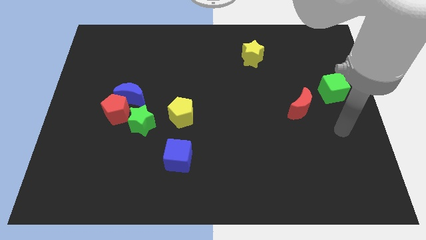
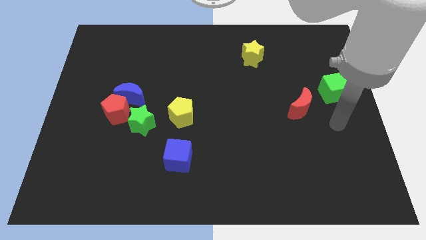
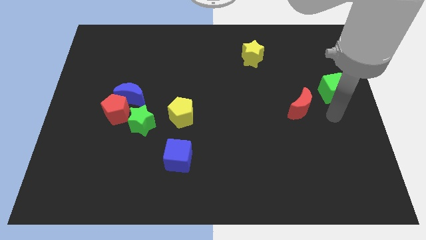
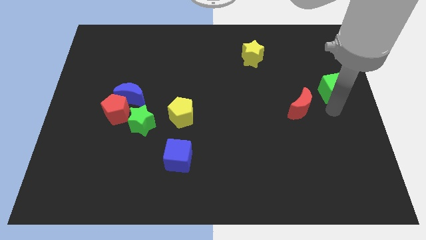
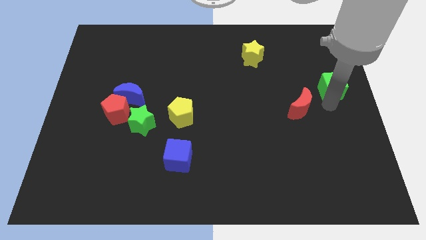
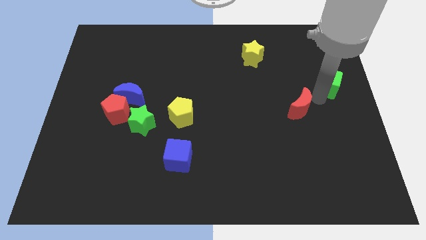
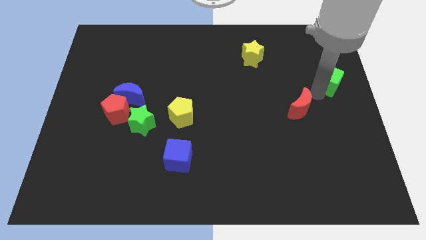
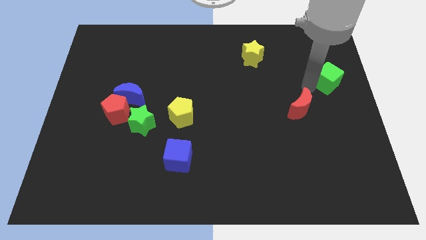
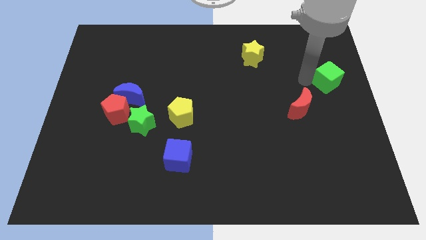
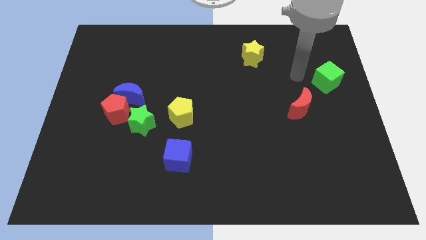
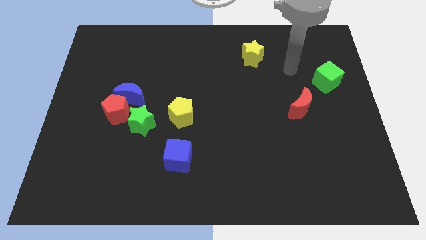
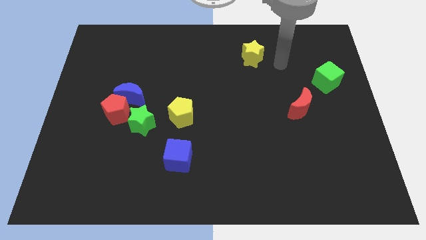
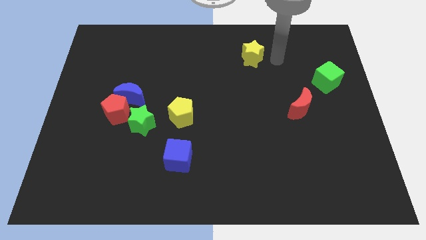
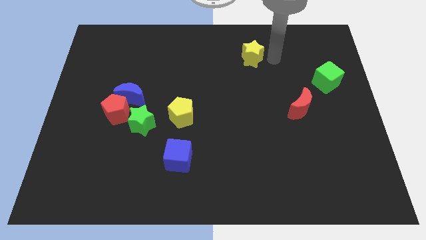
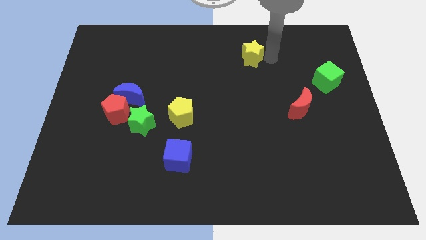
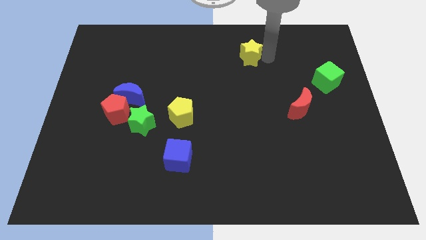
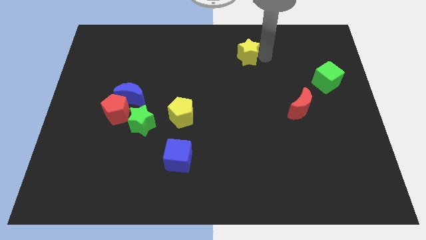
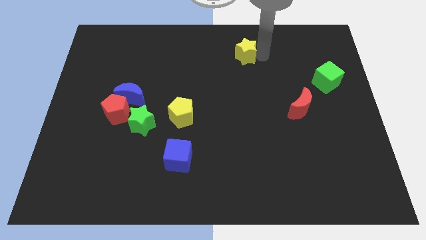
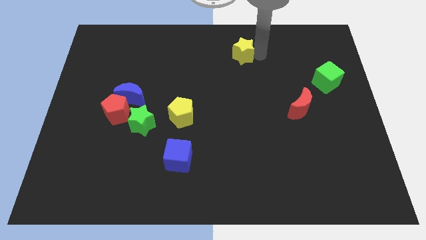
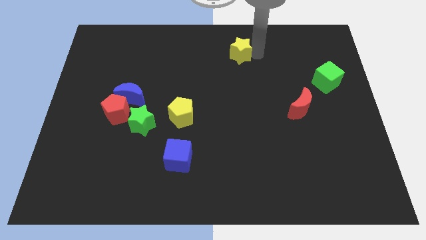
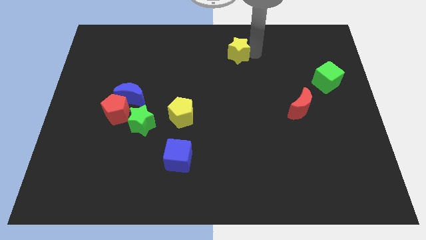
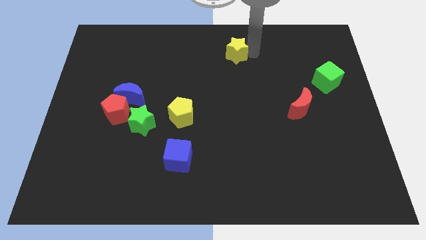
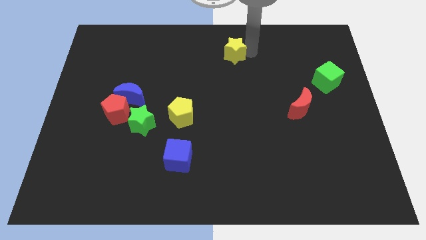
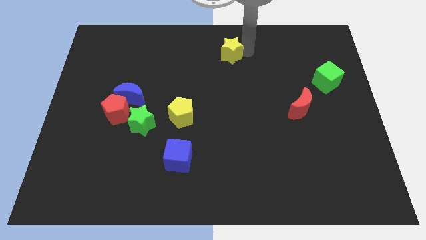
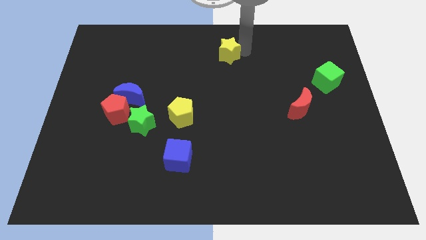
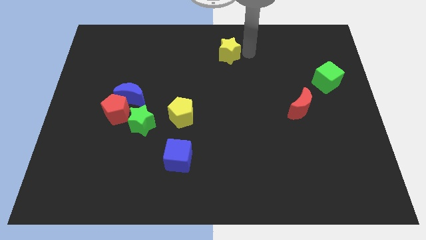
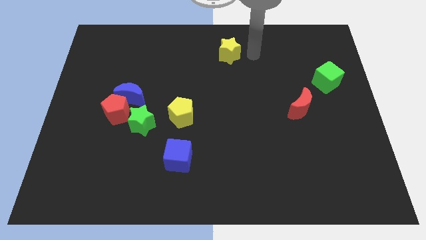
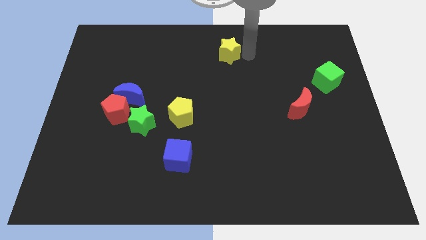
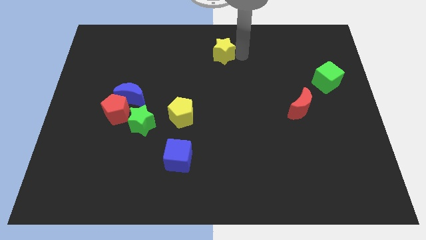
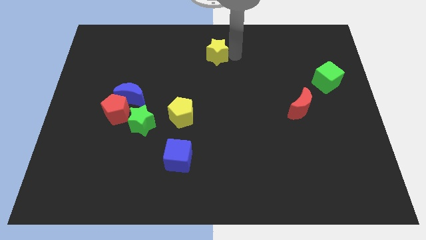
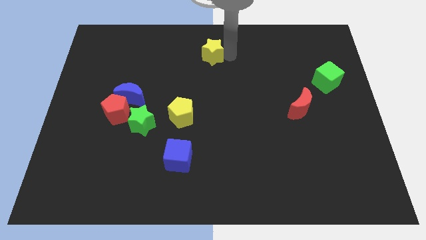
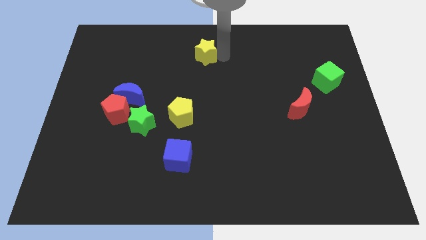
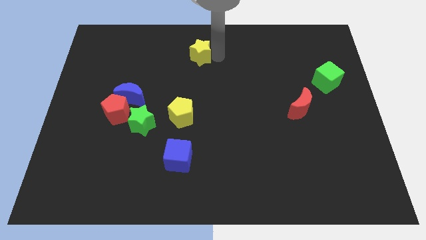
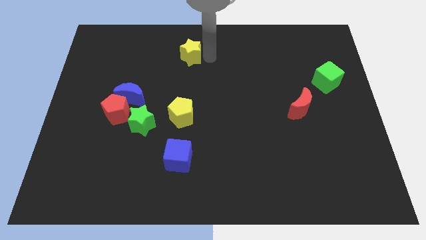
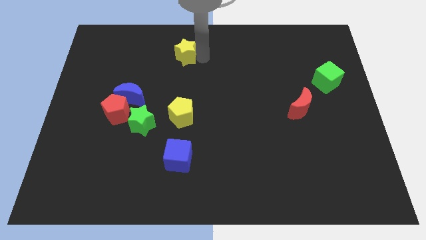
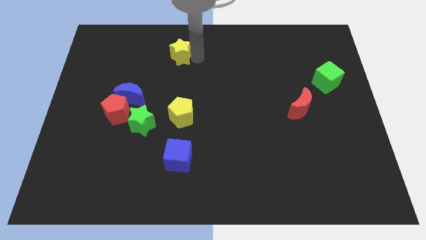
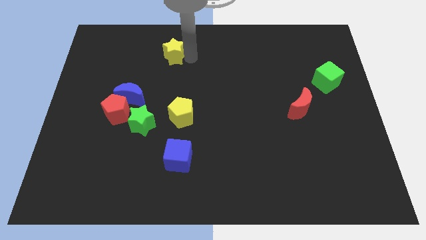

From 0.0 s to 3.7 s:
push the yellow star to the left

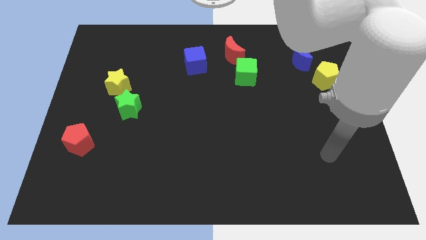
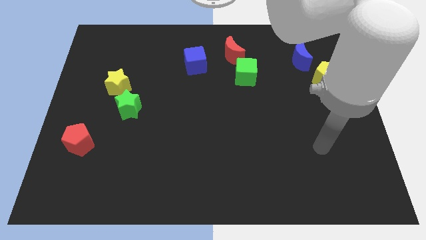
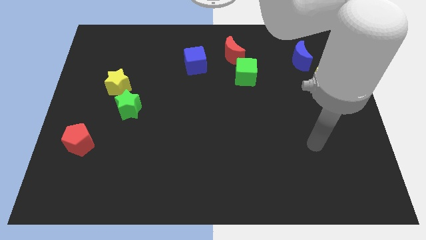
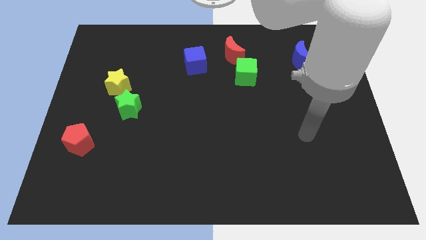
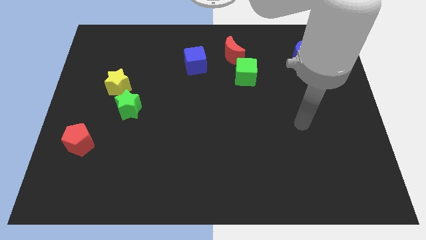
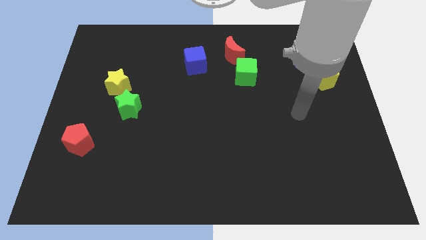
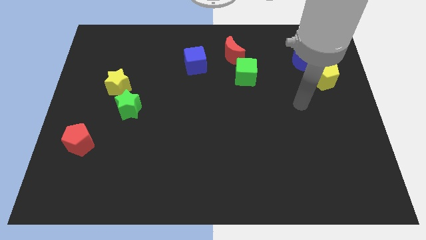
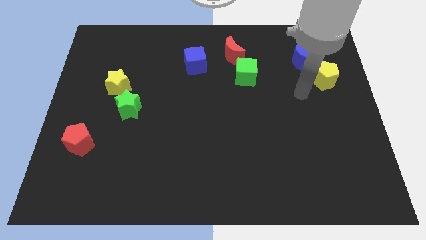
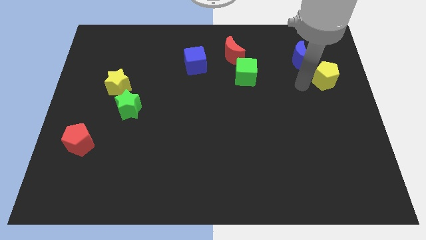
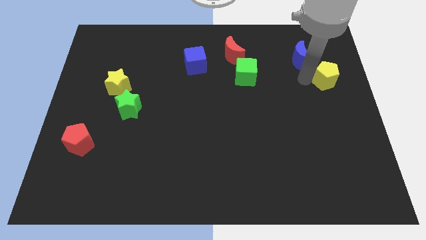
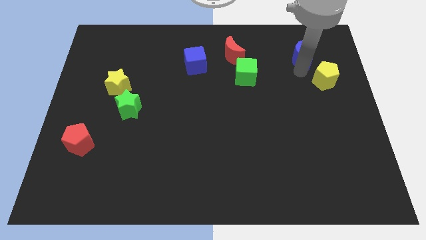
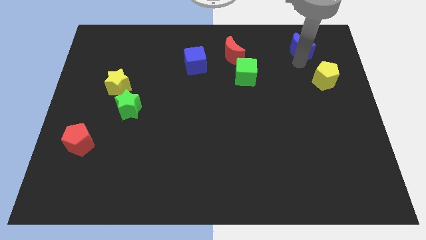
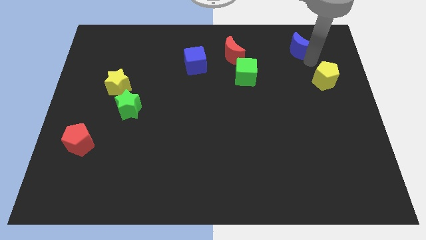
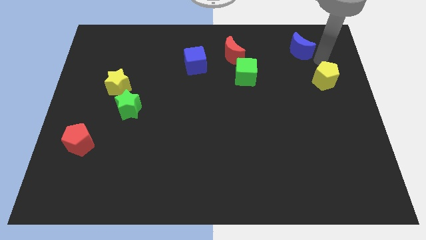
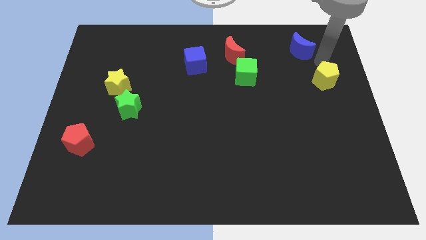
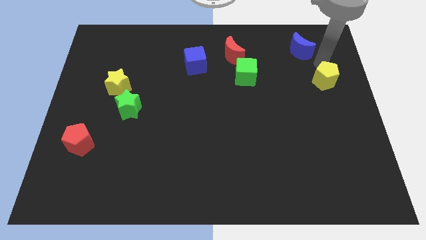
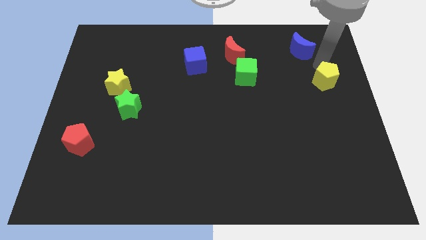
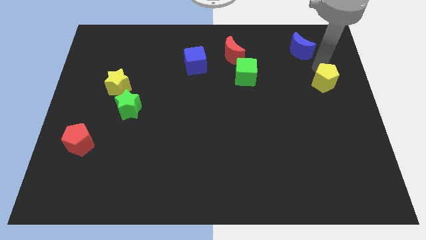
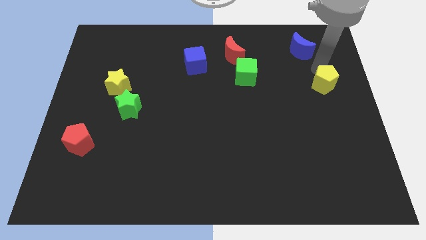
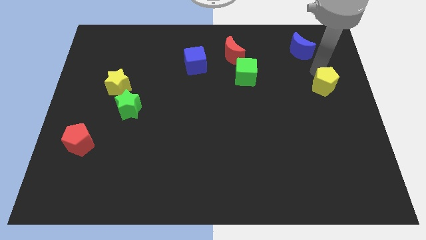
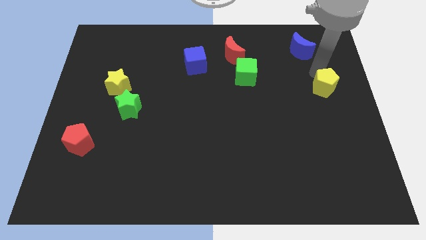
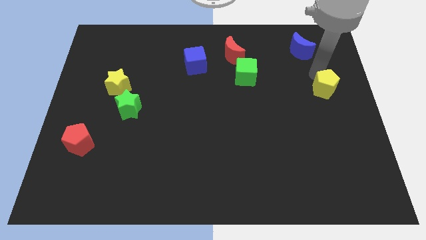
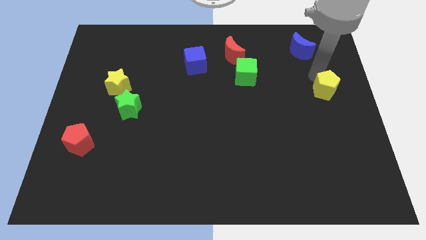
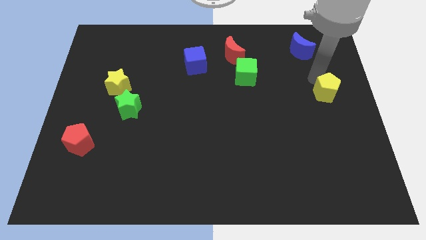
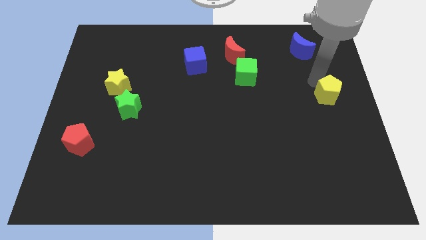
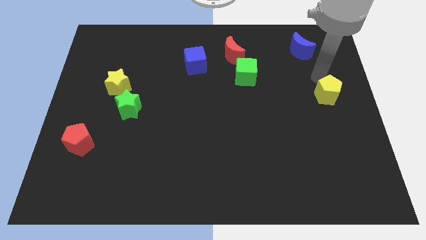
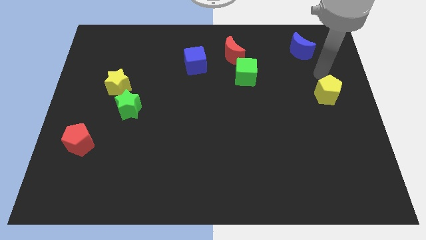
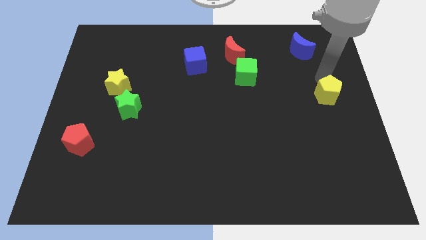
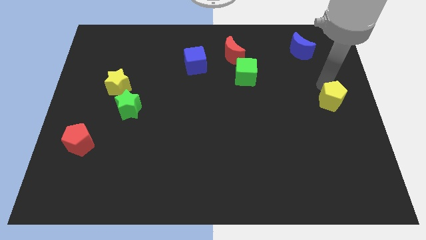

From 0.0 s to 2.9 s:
slide the yellow pentagon downwards somewhat

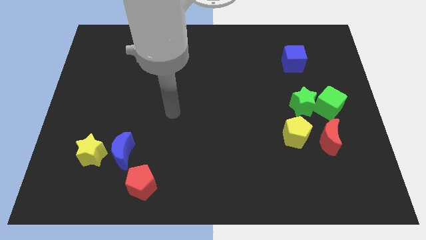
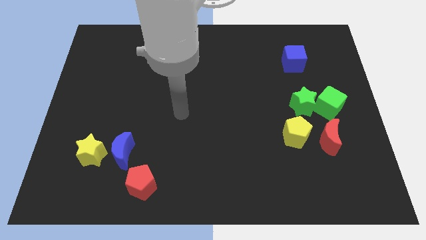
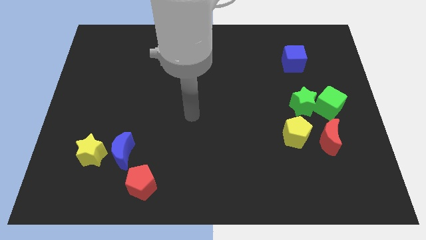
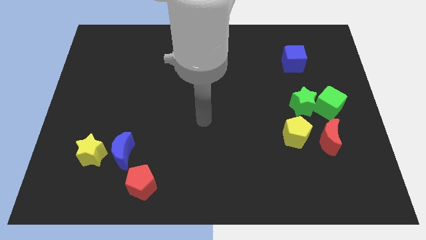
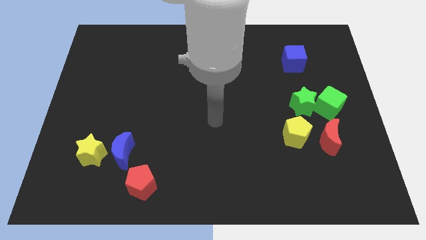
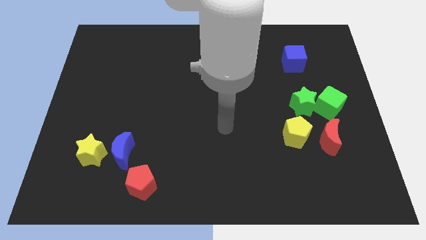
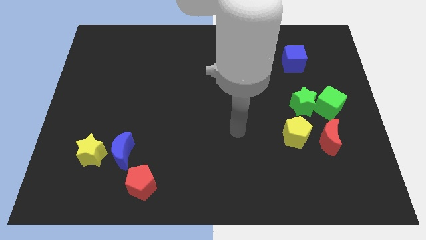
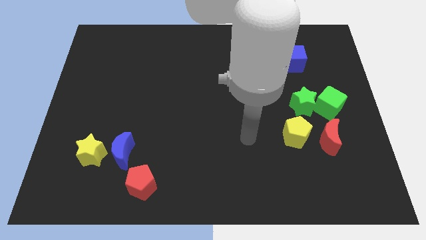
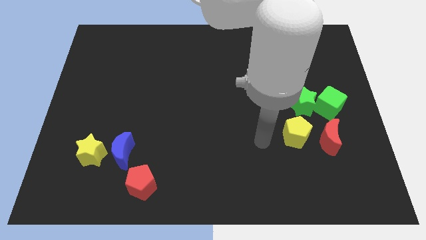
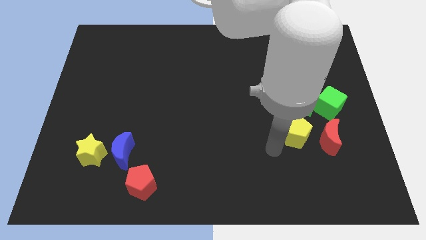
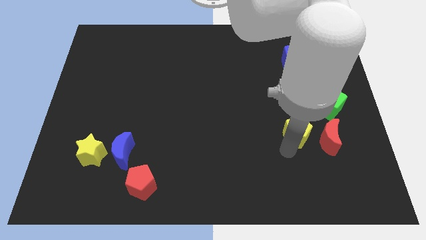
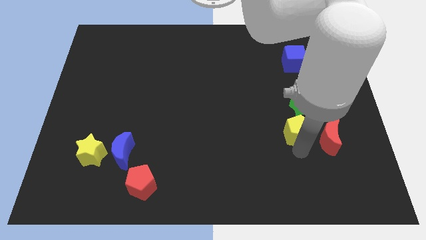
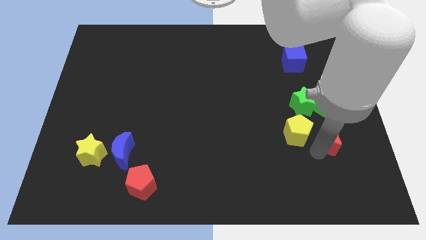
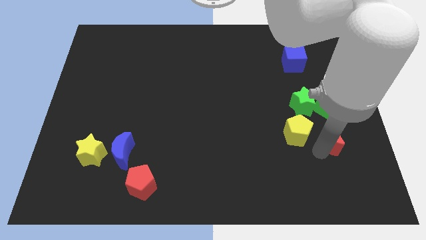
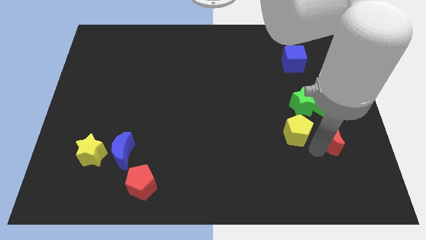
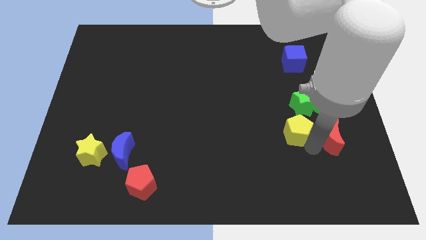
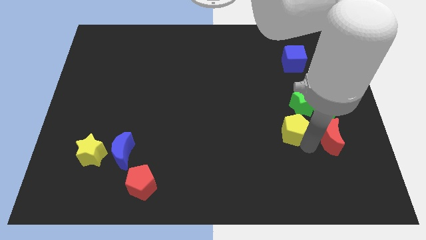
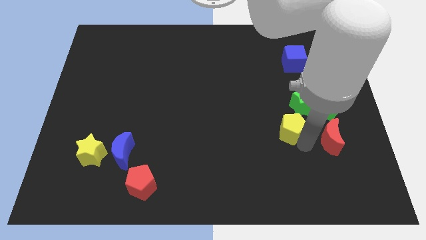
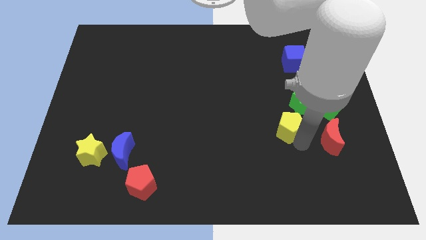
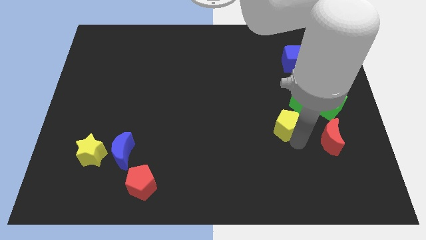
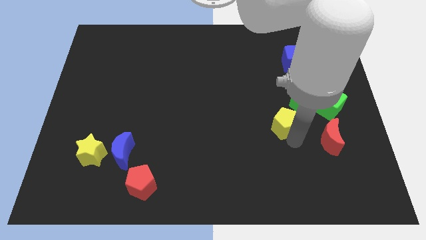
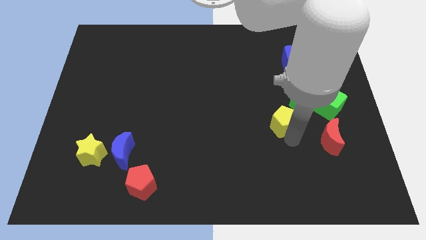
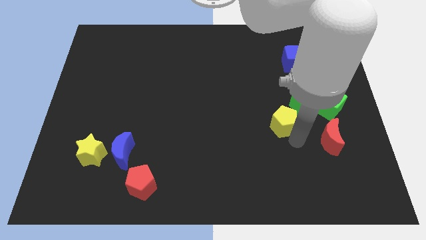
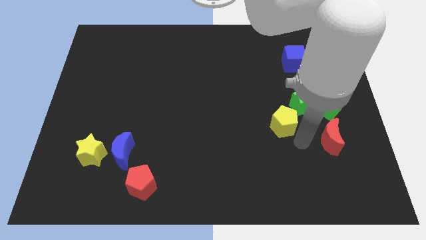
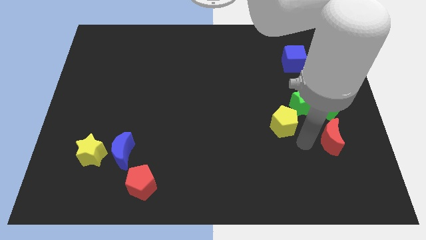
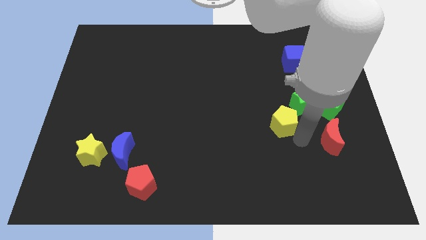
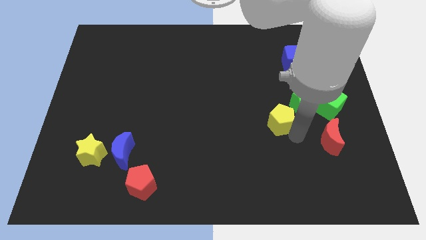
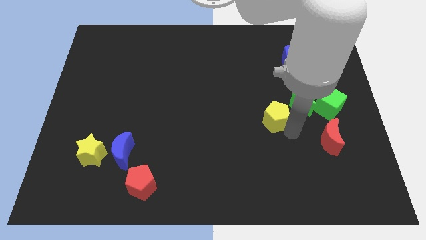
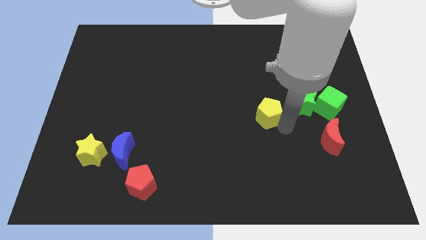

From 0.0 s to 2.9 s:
slide the yellow pentagon up and then left a little bit
